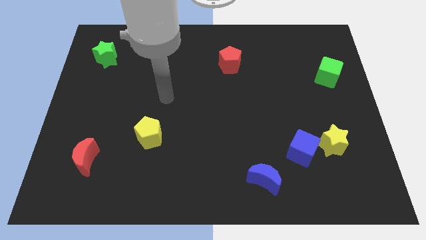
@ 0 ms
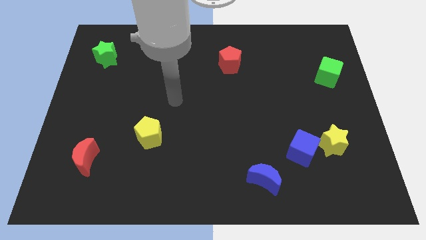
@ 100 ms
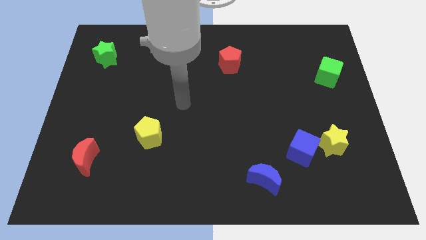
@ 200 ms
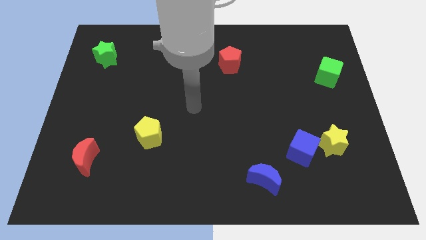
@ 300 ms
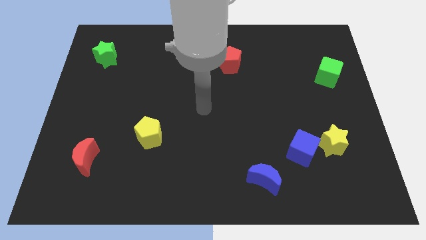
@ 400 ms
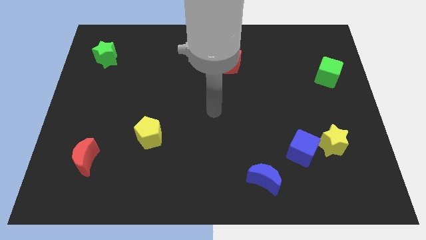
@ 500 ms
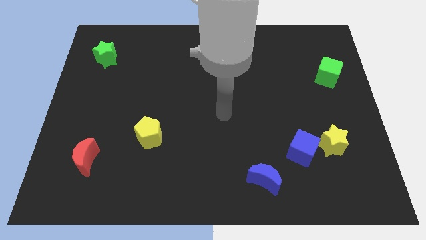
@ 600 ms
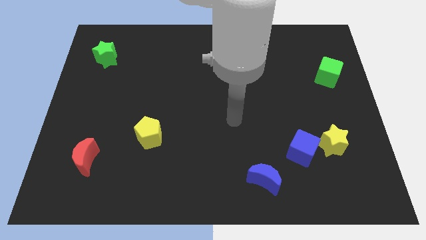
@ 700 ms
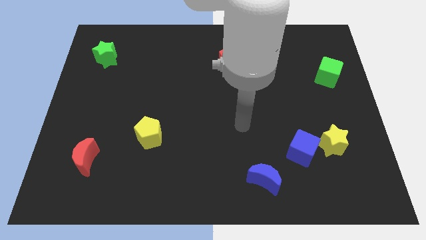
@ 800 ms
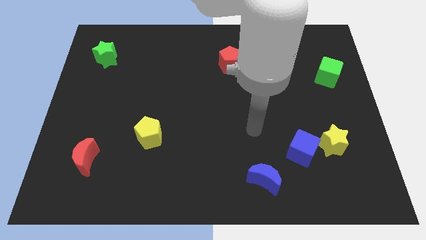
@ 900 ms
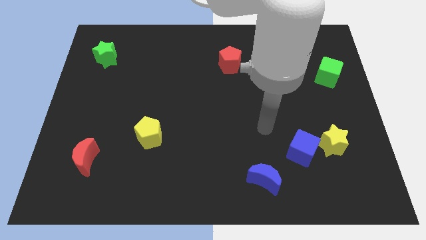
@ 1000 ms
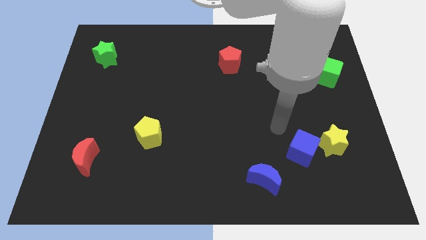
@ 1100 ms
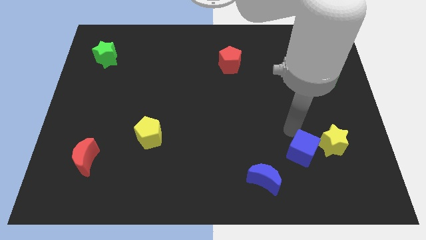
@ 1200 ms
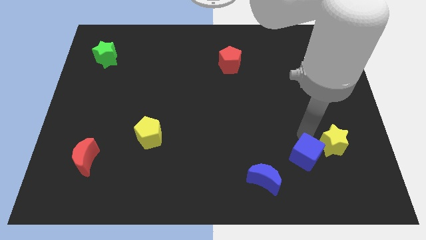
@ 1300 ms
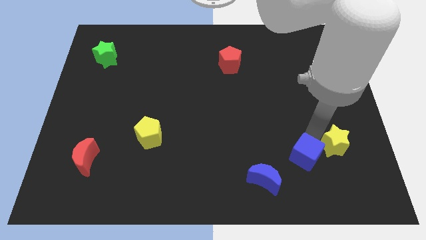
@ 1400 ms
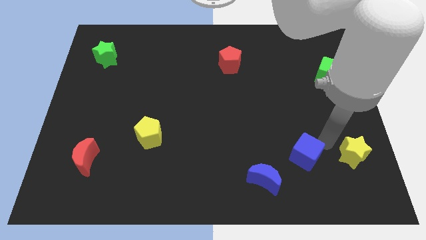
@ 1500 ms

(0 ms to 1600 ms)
pull the blue cube apart from the yellow star

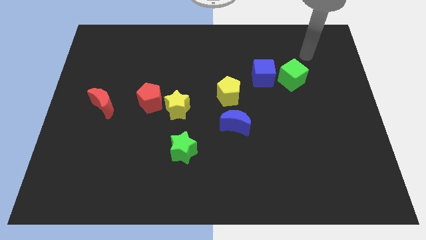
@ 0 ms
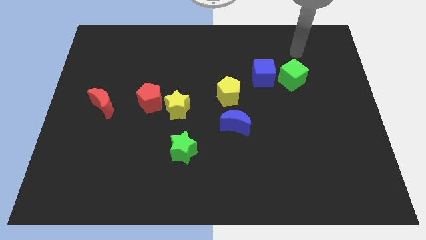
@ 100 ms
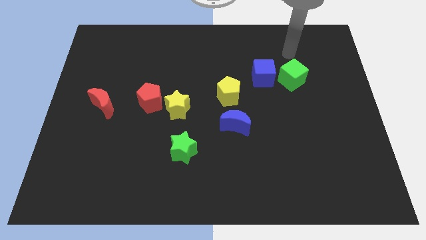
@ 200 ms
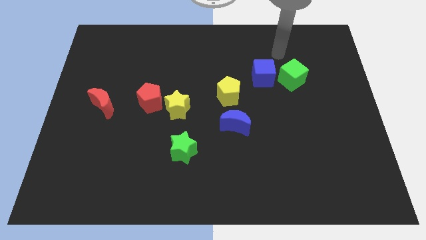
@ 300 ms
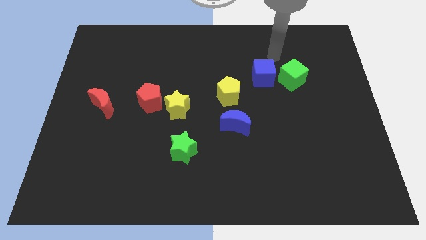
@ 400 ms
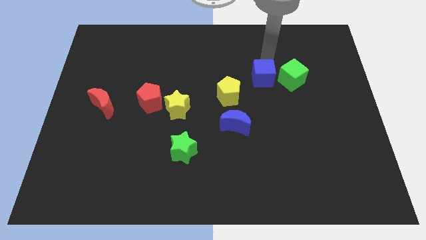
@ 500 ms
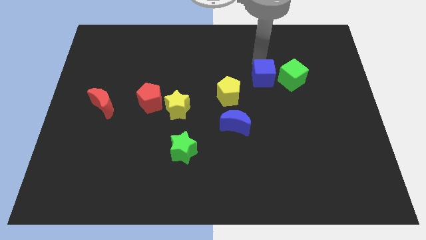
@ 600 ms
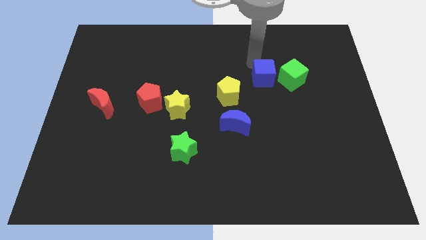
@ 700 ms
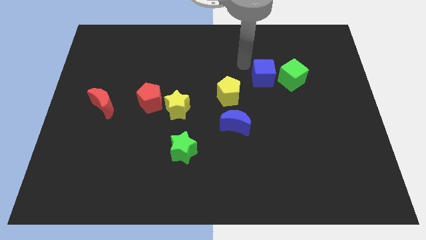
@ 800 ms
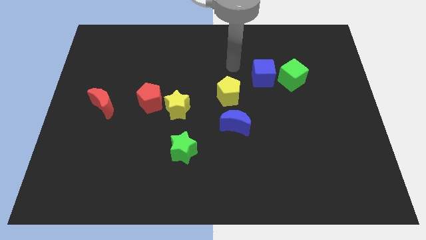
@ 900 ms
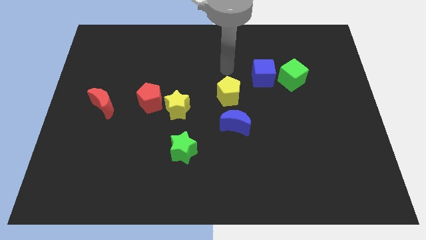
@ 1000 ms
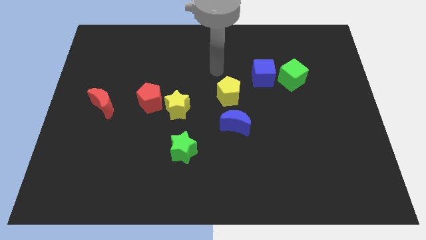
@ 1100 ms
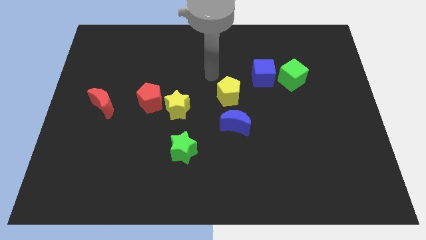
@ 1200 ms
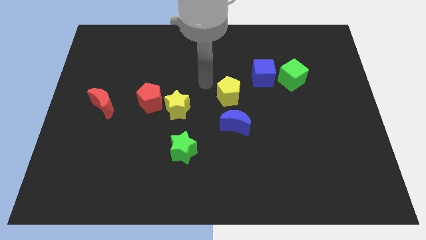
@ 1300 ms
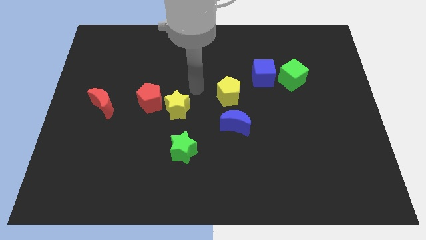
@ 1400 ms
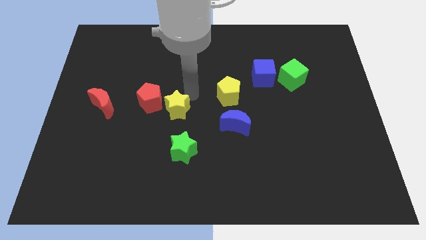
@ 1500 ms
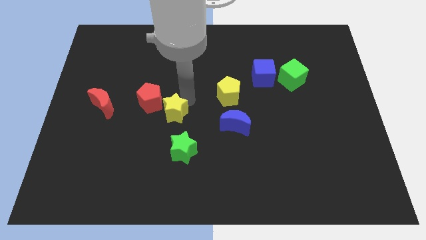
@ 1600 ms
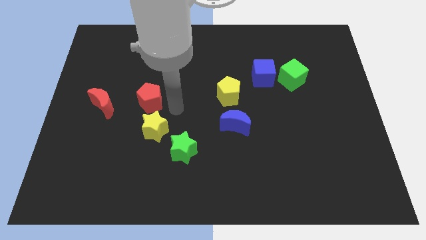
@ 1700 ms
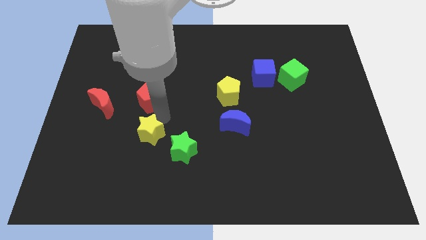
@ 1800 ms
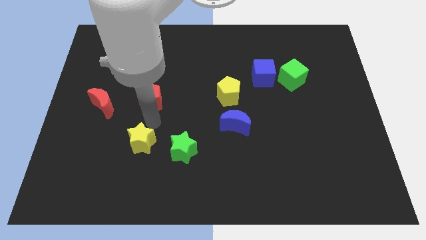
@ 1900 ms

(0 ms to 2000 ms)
pull the red pentagon apart from the yellow star

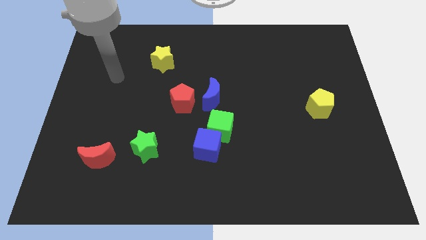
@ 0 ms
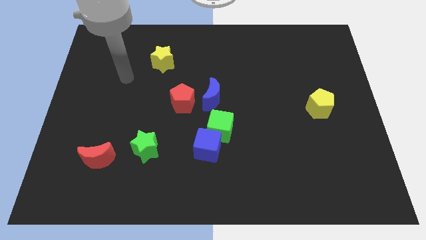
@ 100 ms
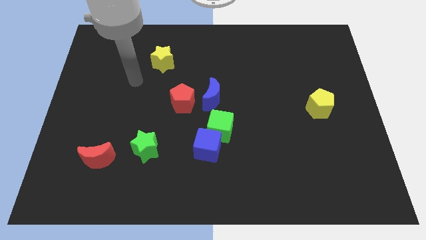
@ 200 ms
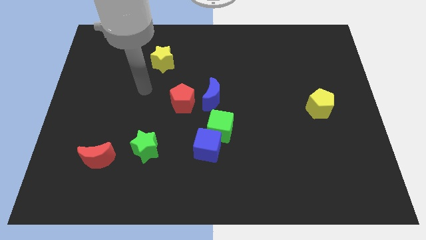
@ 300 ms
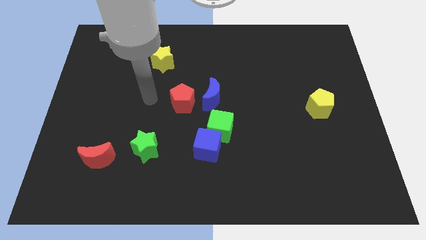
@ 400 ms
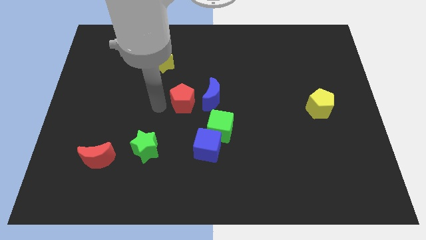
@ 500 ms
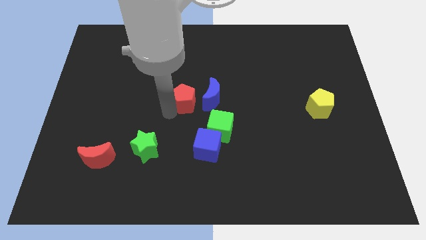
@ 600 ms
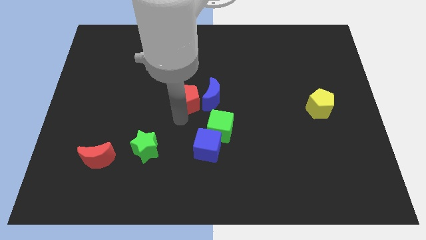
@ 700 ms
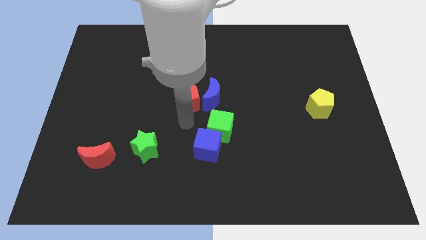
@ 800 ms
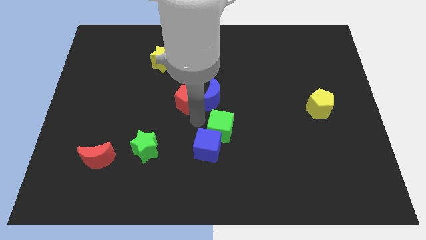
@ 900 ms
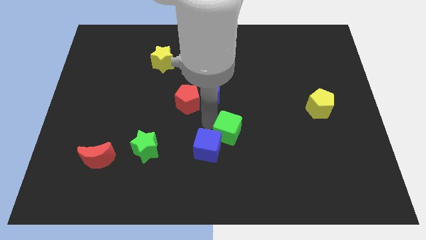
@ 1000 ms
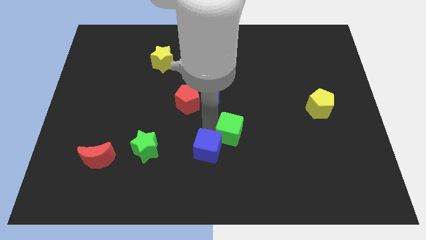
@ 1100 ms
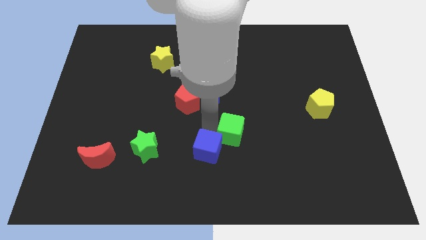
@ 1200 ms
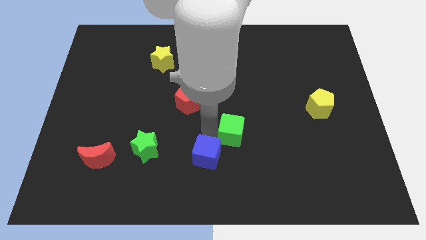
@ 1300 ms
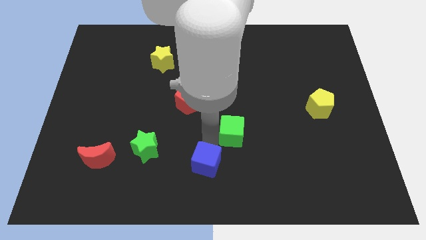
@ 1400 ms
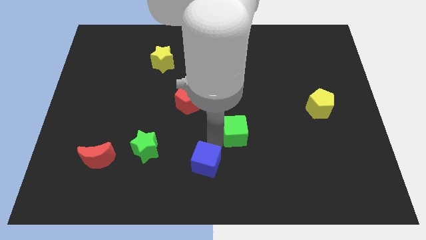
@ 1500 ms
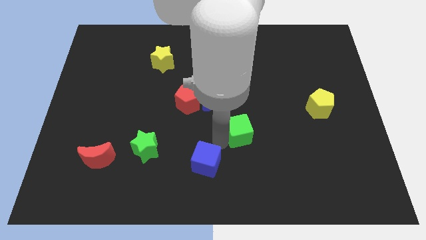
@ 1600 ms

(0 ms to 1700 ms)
separate the blue cube from the green cube

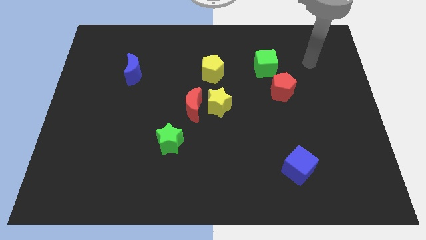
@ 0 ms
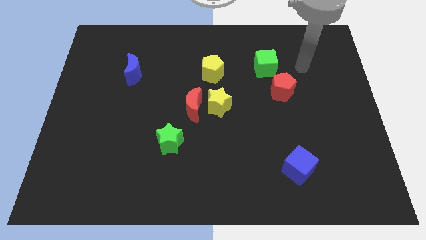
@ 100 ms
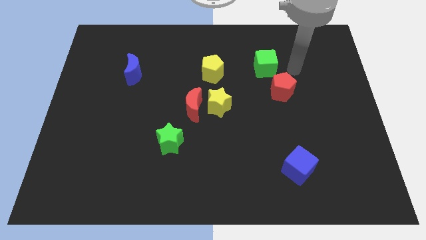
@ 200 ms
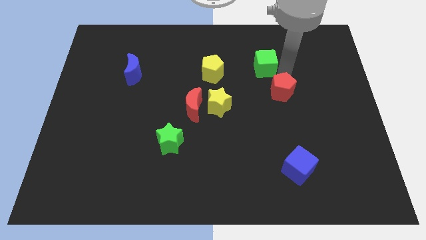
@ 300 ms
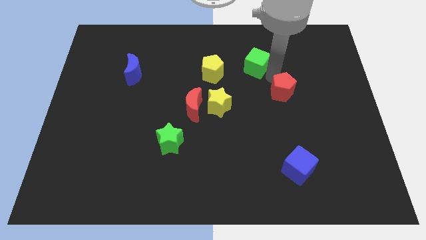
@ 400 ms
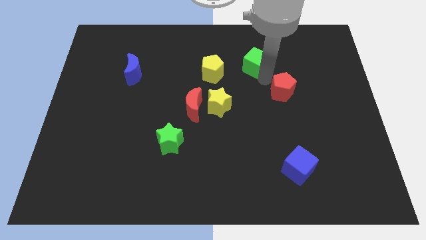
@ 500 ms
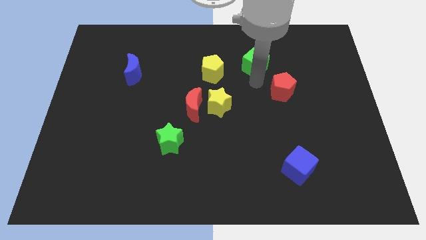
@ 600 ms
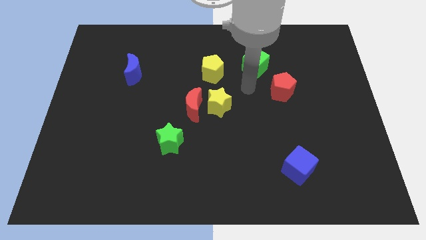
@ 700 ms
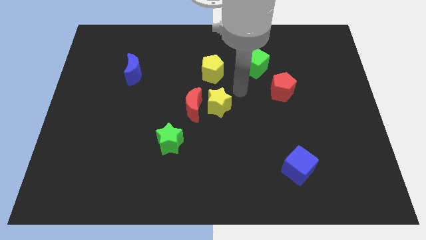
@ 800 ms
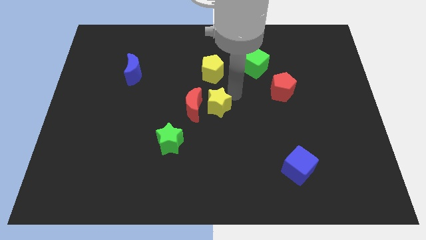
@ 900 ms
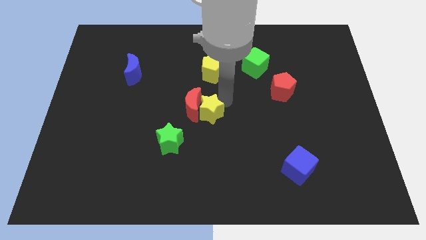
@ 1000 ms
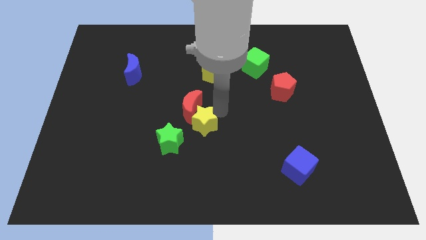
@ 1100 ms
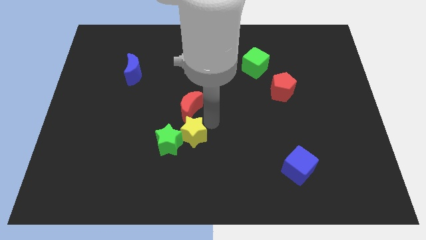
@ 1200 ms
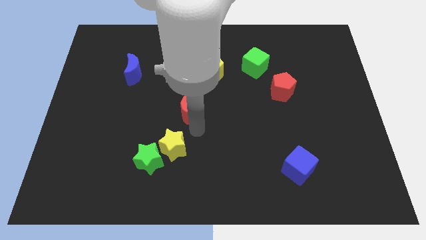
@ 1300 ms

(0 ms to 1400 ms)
pull the red moon apart from the yellow star

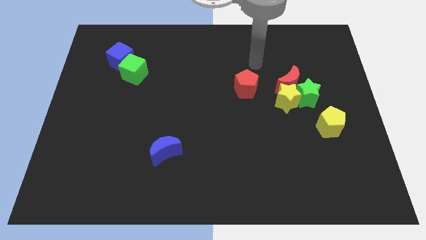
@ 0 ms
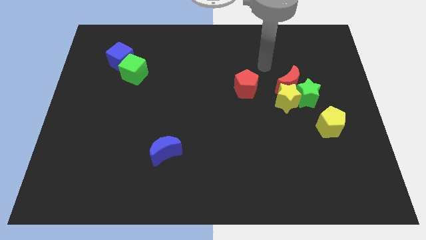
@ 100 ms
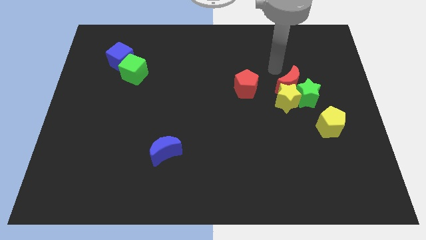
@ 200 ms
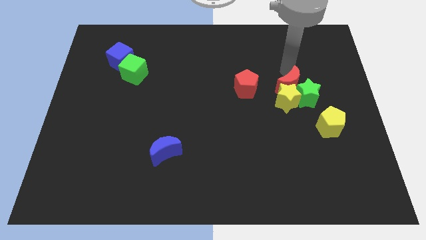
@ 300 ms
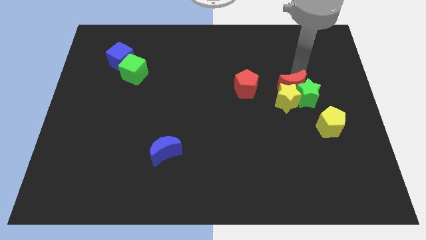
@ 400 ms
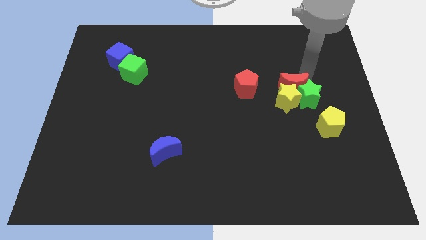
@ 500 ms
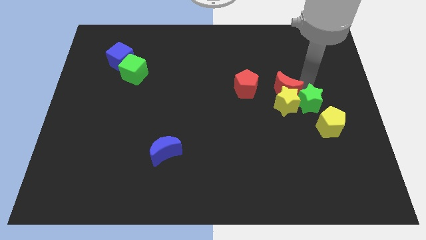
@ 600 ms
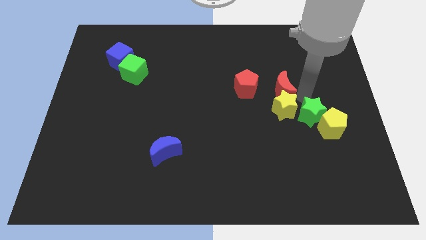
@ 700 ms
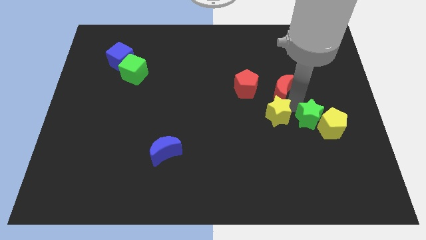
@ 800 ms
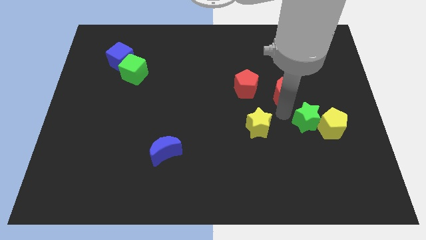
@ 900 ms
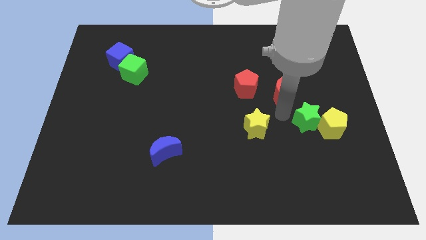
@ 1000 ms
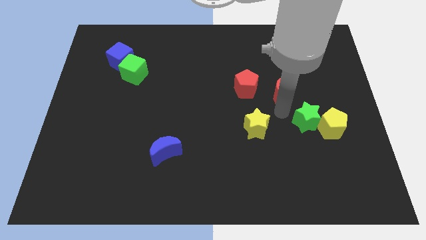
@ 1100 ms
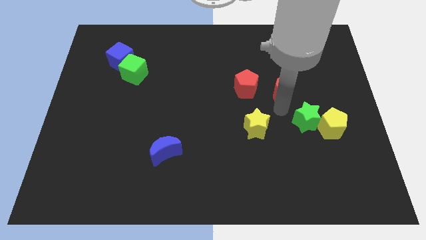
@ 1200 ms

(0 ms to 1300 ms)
separate the red moon from the yellow star and green star

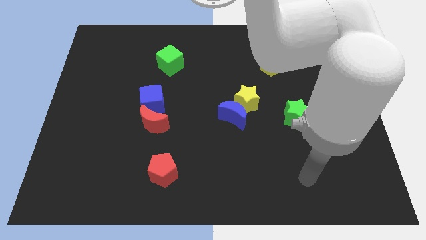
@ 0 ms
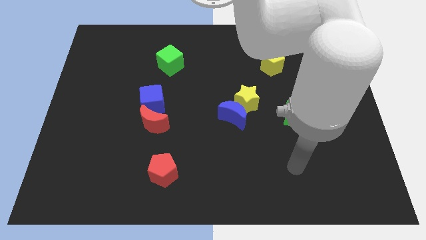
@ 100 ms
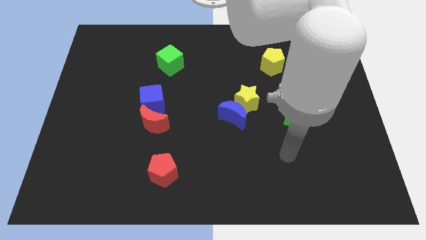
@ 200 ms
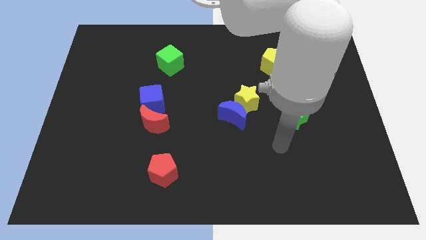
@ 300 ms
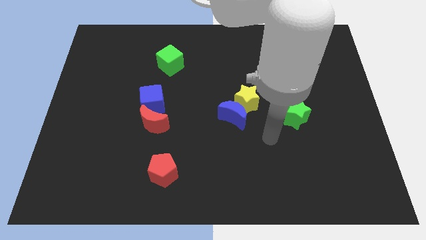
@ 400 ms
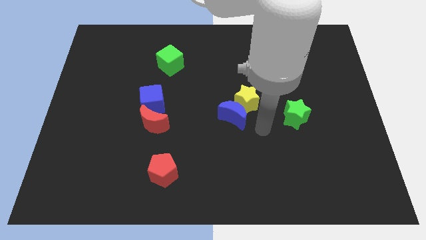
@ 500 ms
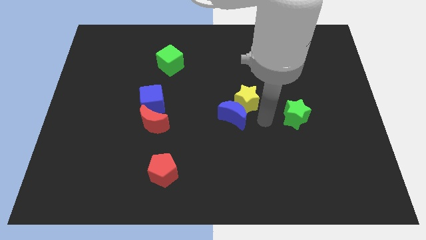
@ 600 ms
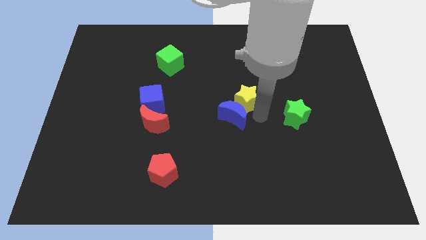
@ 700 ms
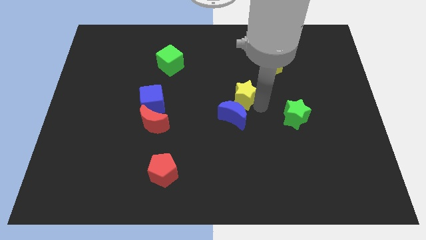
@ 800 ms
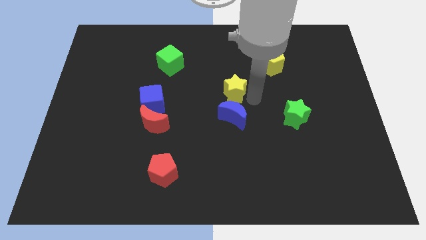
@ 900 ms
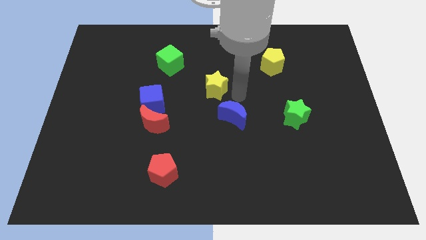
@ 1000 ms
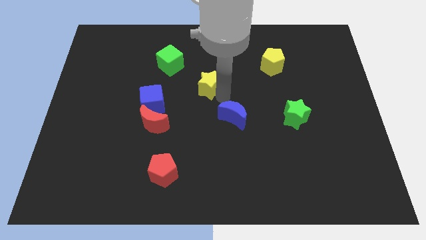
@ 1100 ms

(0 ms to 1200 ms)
pull the blue moon apart from the yellow star
